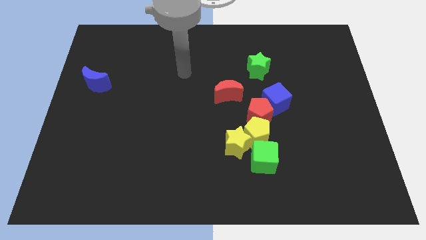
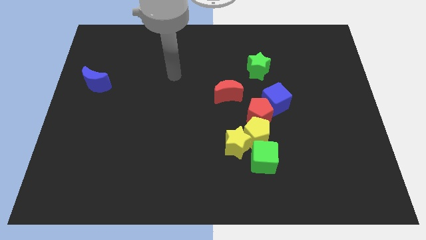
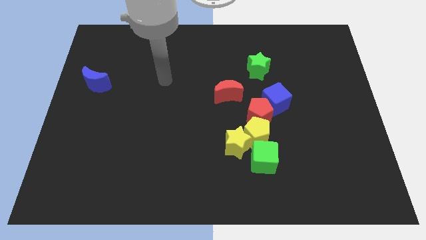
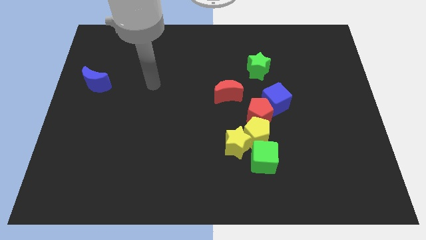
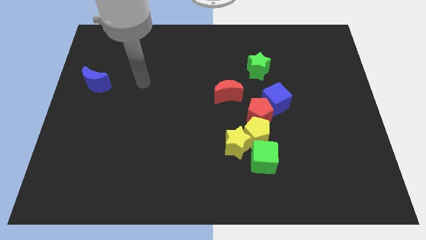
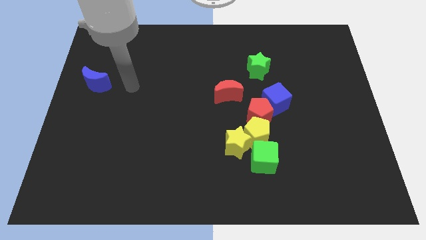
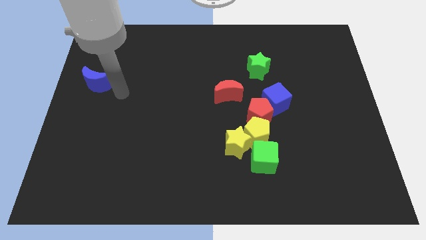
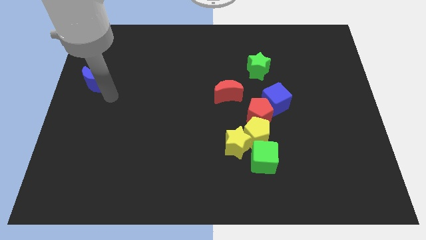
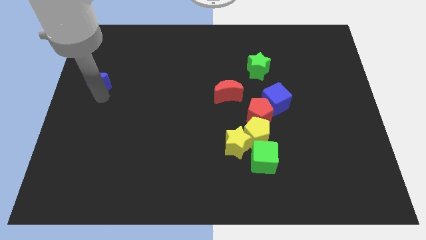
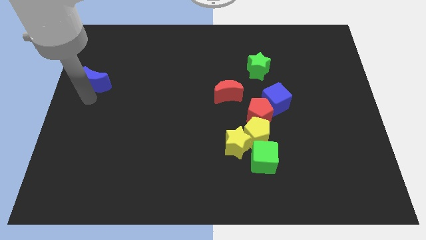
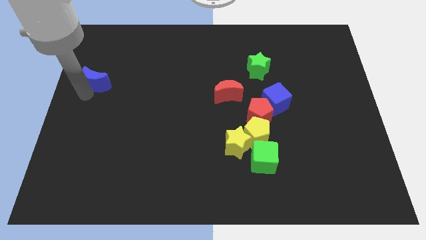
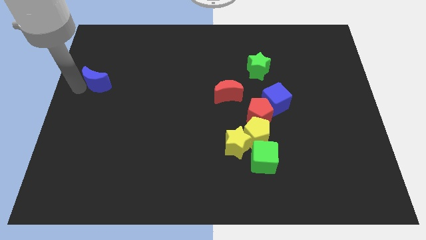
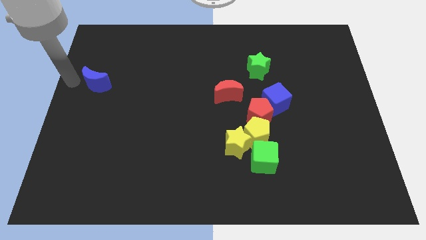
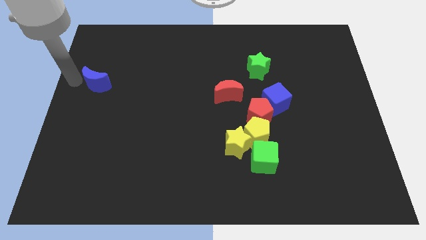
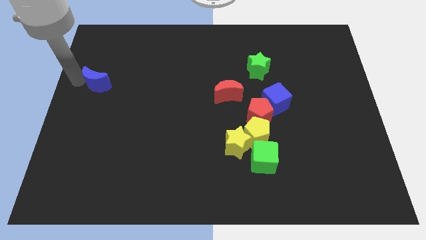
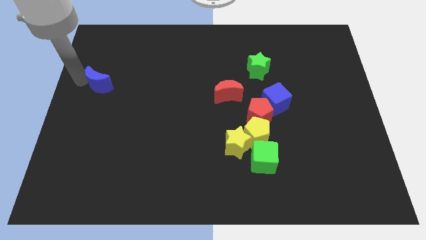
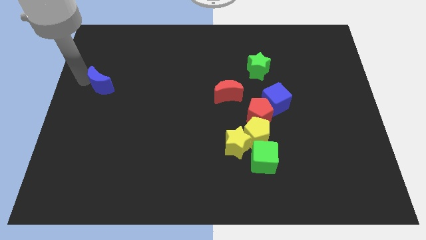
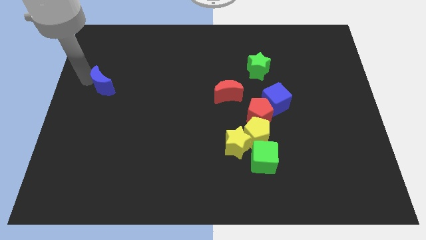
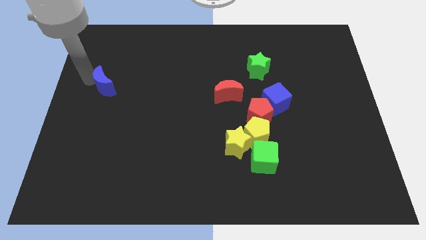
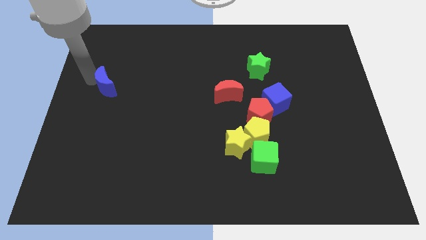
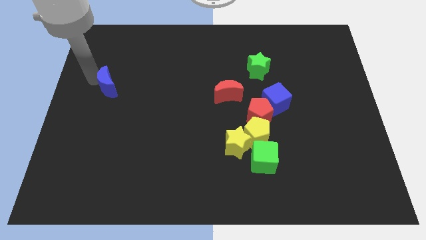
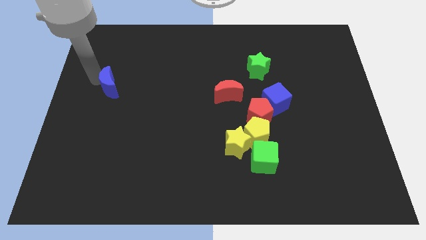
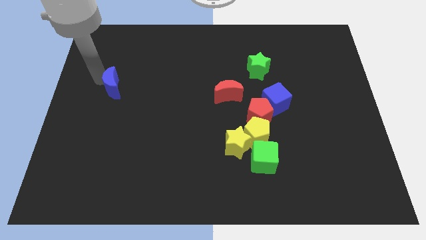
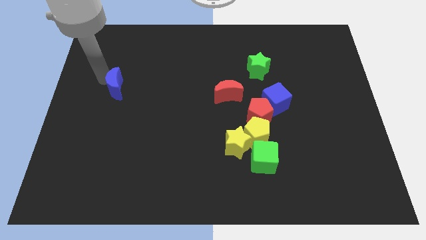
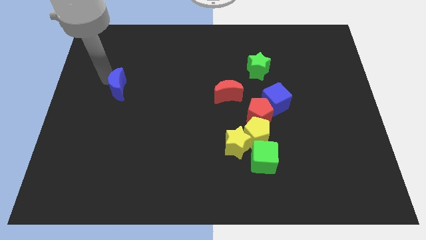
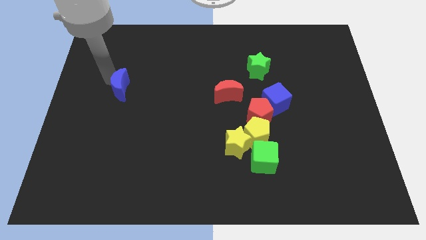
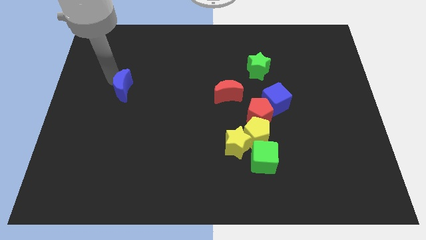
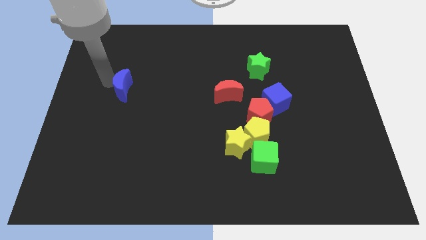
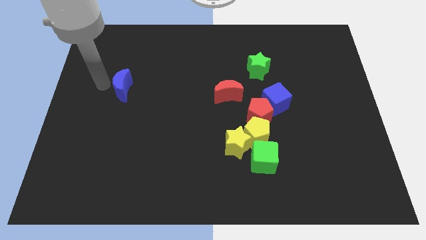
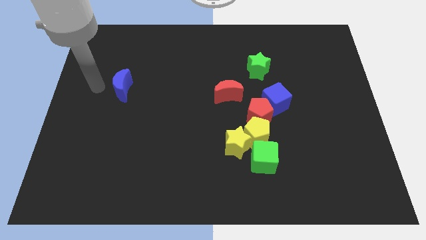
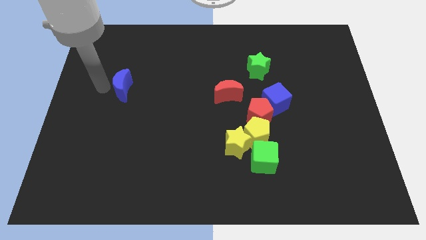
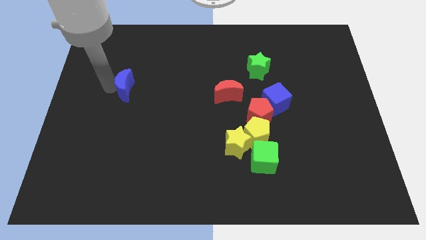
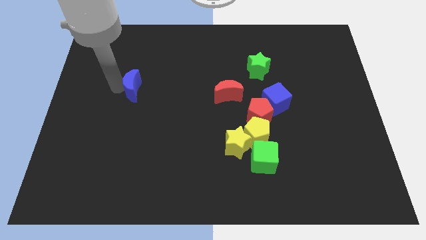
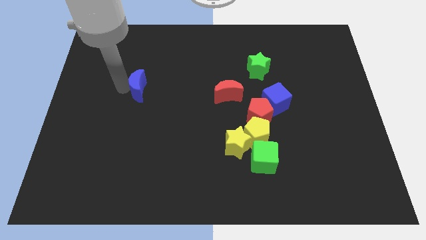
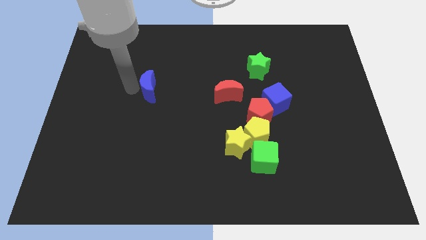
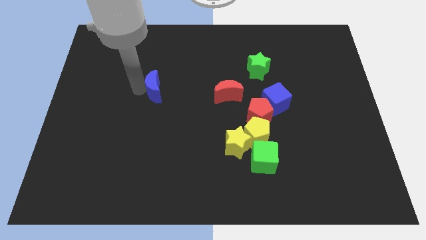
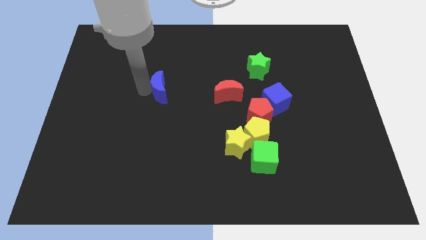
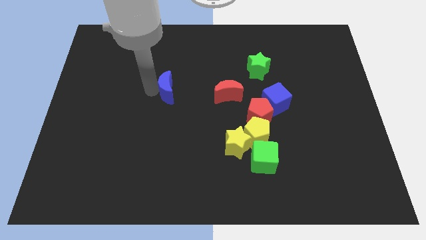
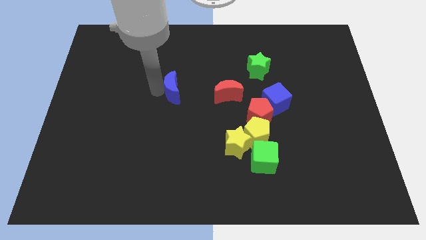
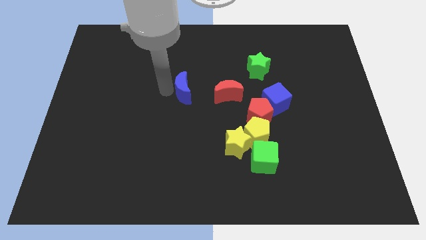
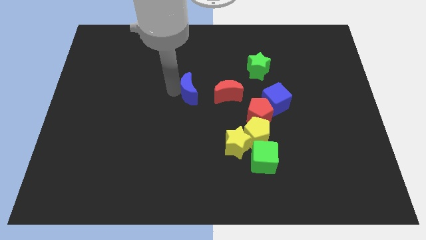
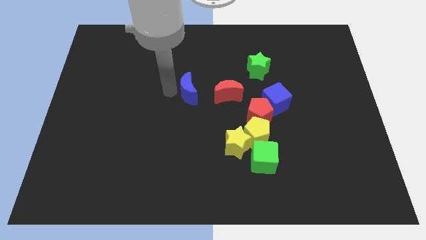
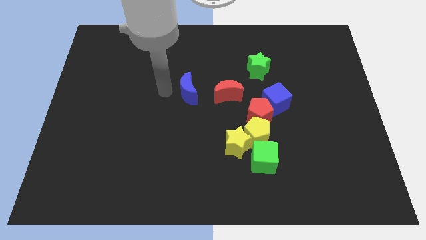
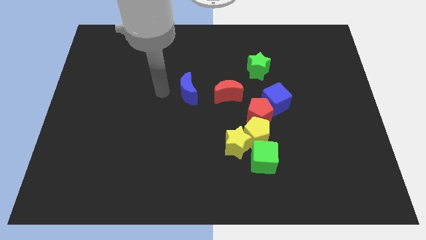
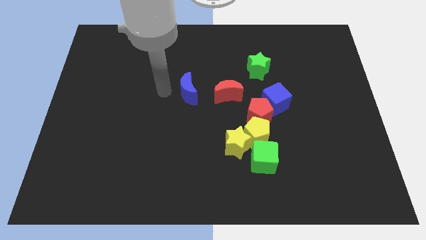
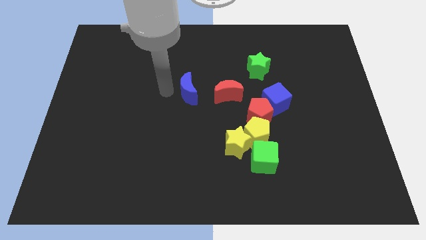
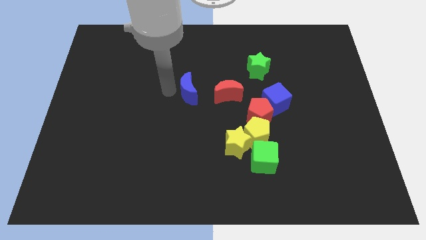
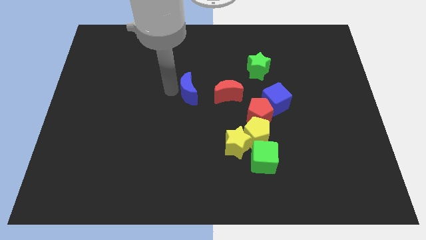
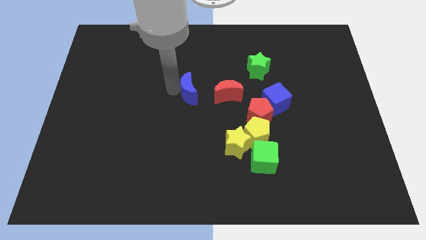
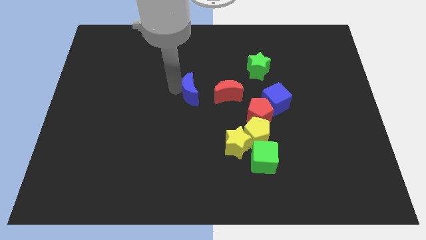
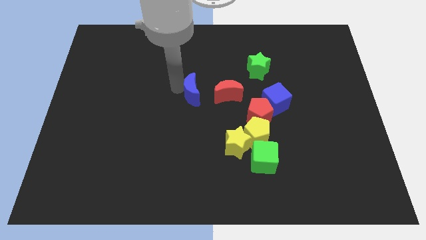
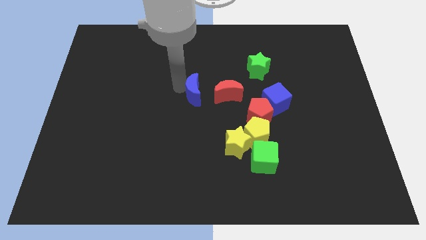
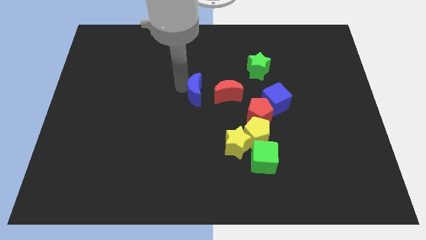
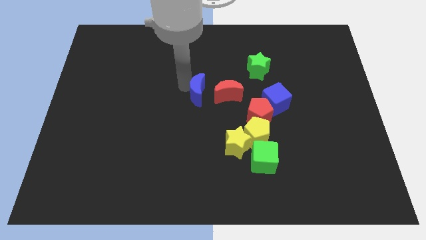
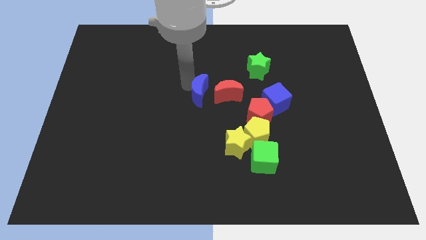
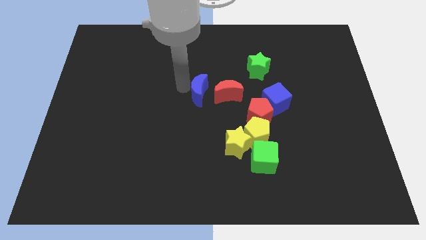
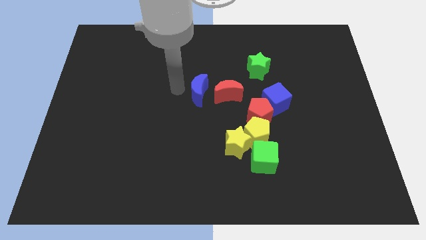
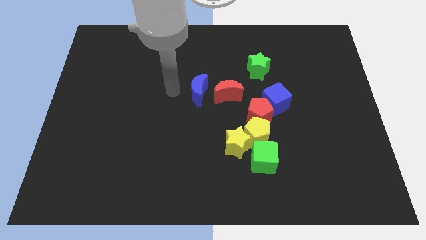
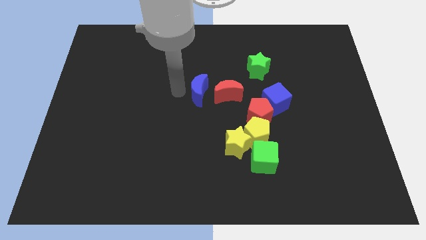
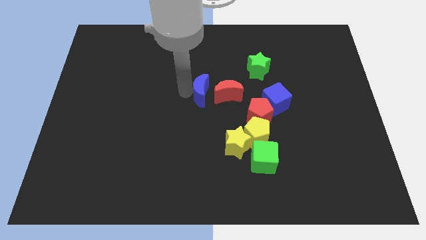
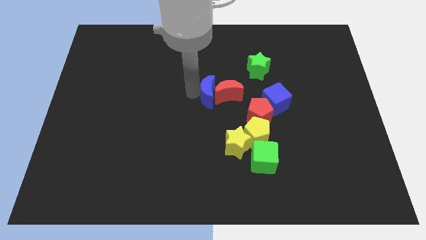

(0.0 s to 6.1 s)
move the blue moon close to the red moon
